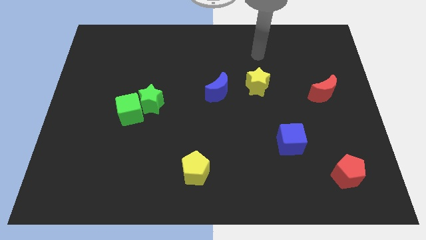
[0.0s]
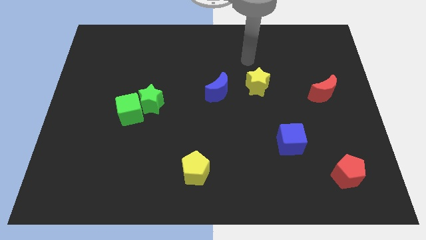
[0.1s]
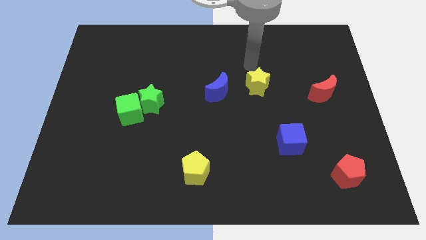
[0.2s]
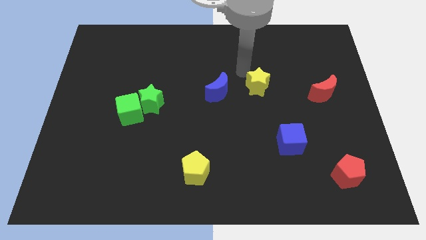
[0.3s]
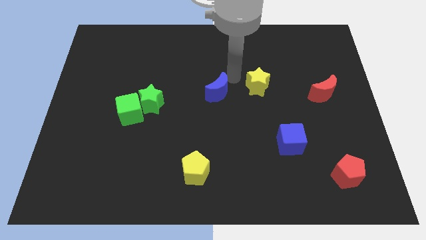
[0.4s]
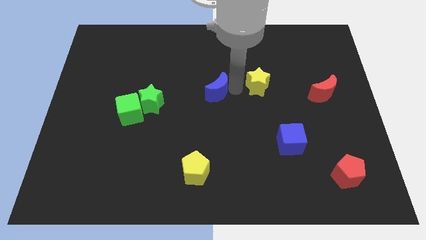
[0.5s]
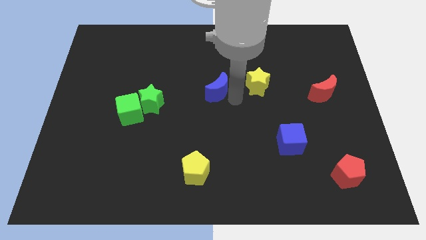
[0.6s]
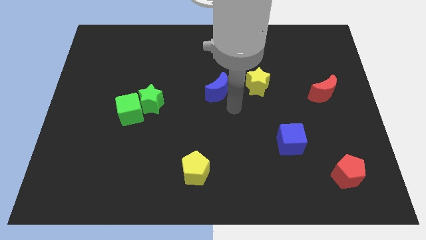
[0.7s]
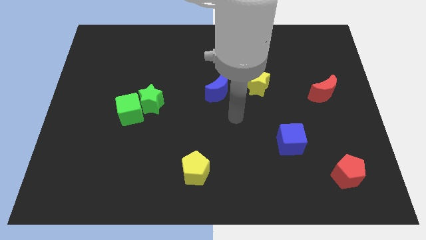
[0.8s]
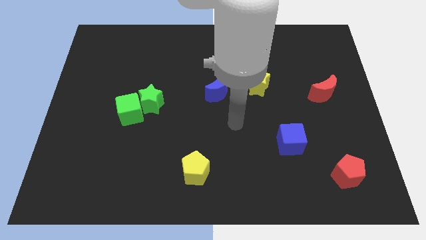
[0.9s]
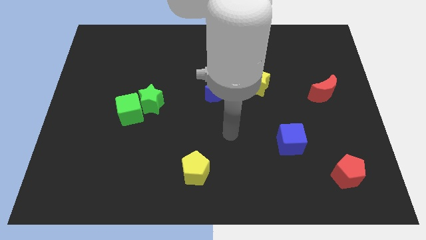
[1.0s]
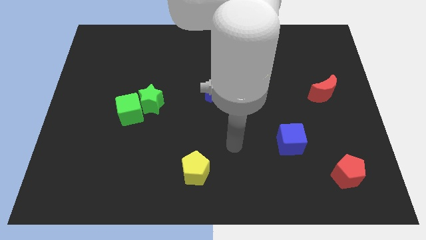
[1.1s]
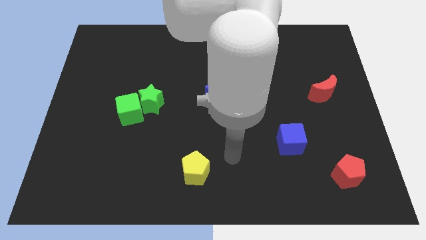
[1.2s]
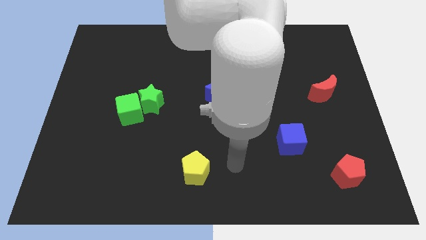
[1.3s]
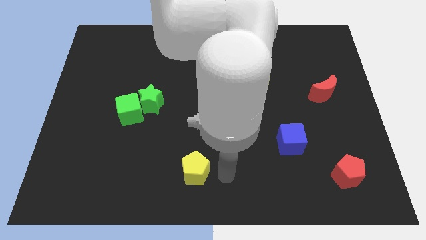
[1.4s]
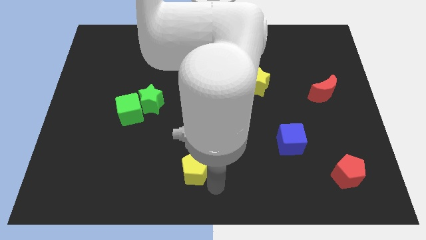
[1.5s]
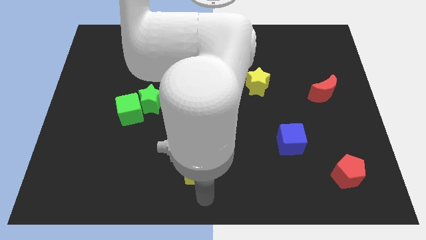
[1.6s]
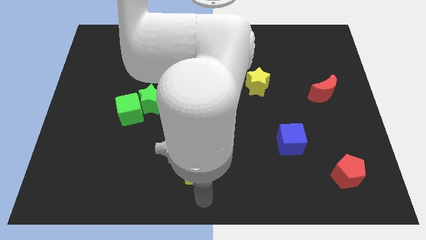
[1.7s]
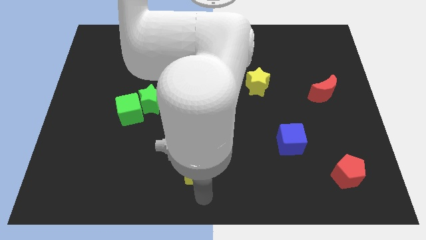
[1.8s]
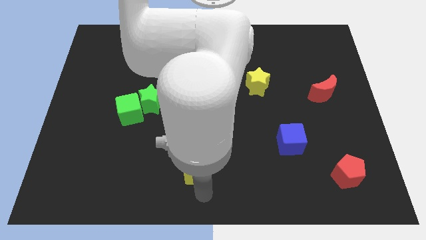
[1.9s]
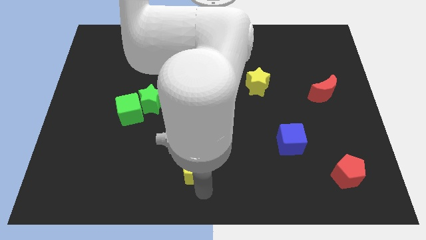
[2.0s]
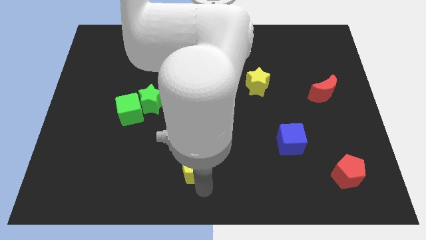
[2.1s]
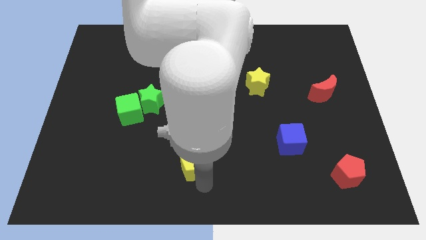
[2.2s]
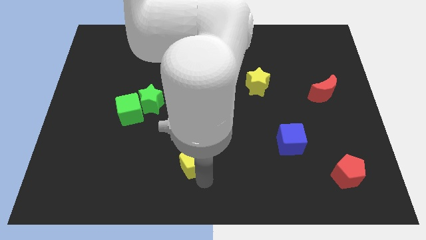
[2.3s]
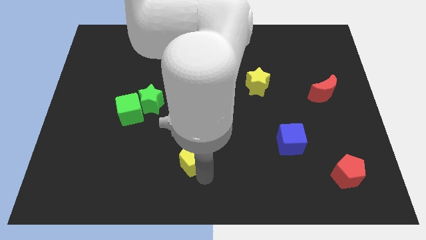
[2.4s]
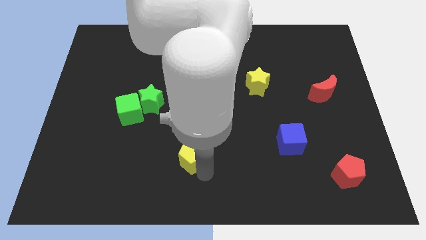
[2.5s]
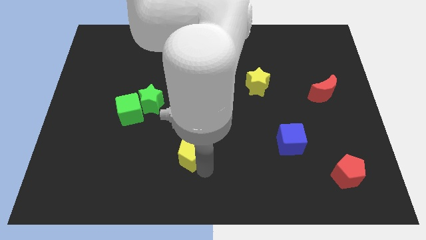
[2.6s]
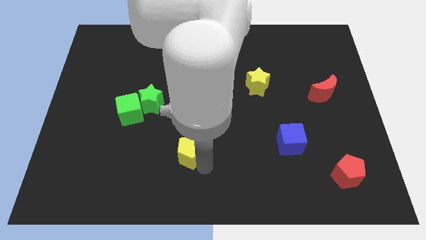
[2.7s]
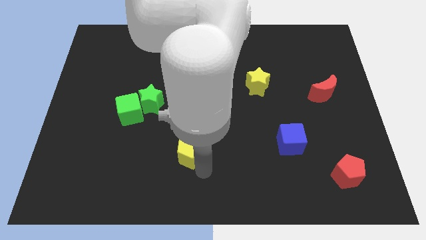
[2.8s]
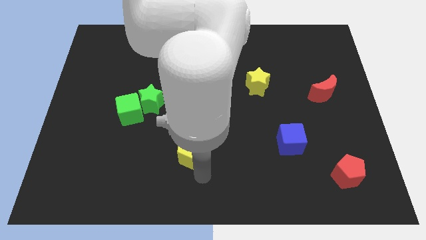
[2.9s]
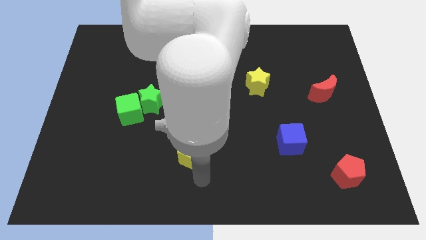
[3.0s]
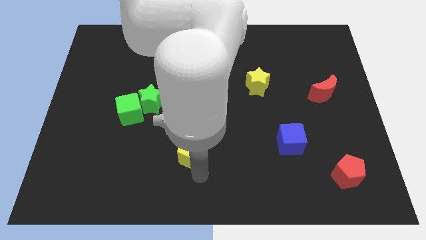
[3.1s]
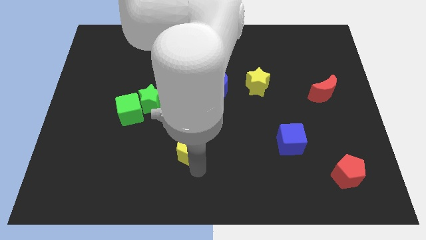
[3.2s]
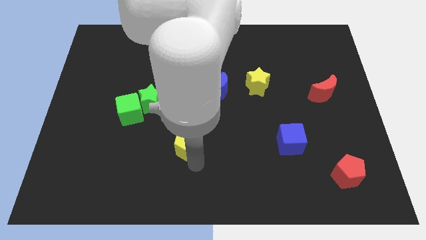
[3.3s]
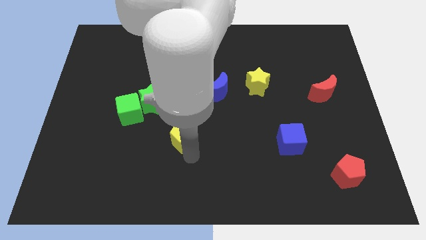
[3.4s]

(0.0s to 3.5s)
slide the yellow pentagon up a little bit

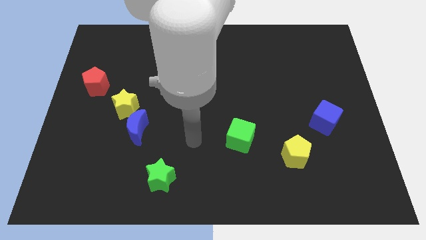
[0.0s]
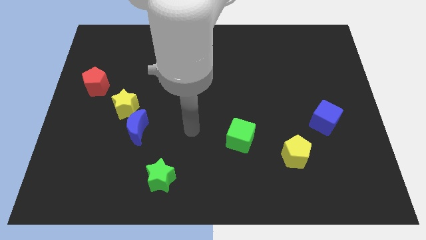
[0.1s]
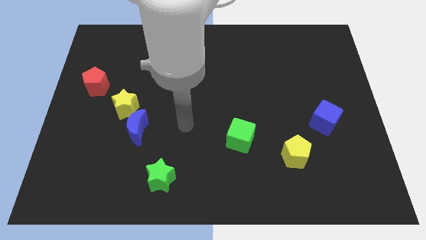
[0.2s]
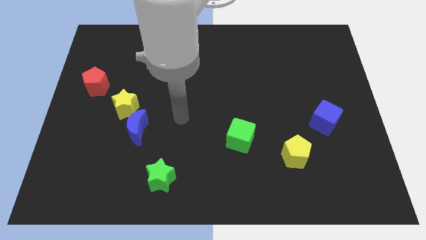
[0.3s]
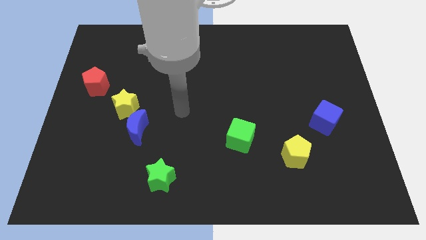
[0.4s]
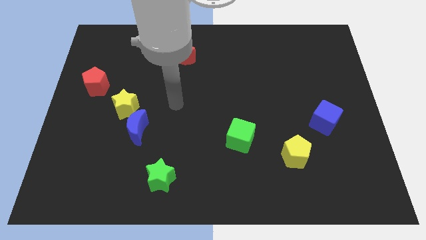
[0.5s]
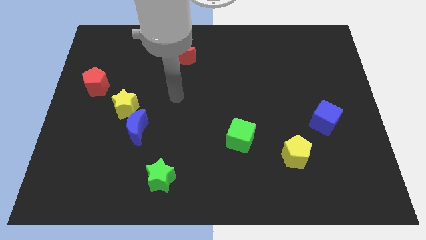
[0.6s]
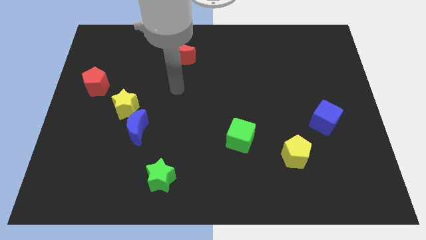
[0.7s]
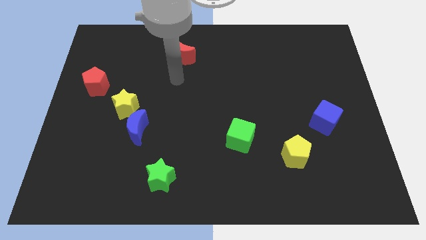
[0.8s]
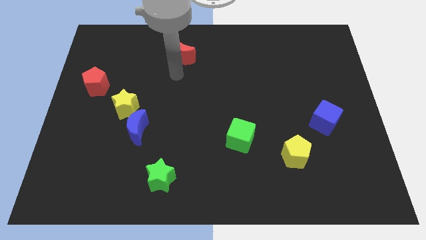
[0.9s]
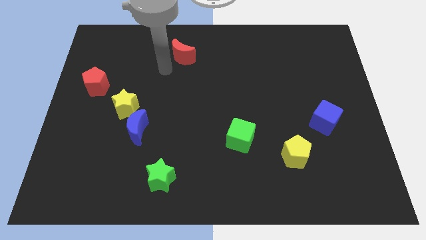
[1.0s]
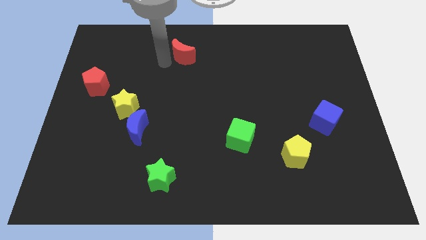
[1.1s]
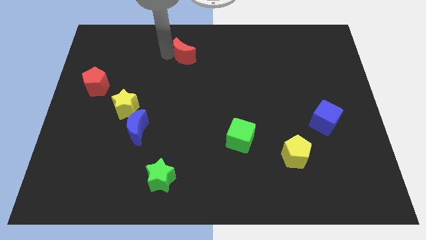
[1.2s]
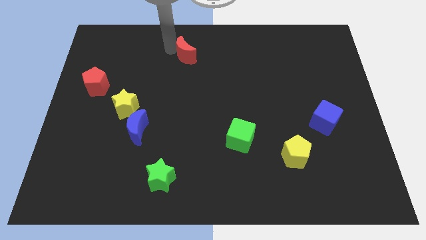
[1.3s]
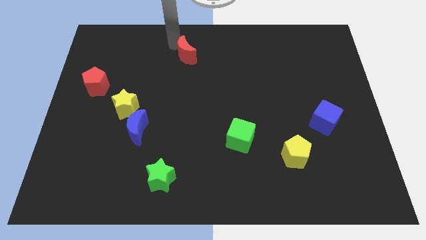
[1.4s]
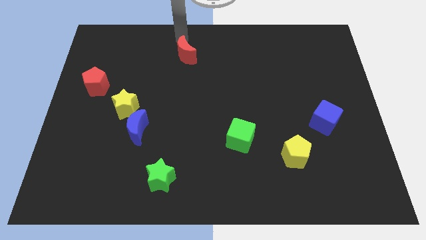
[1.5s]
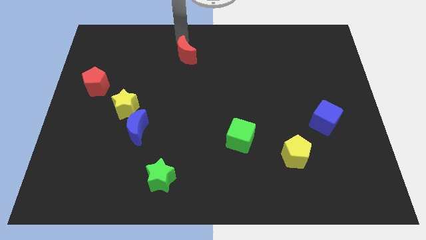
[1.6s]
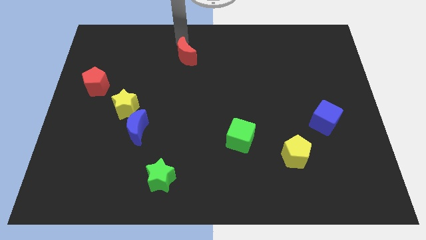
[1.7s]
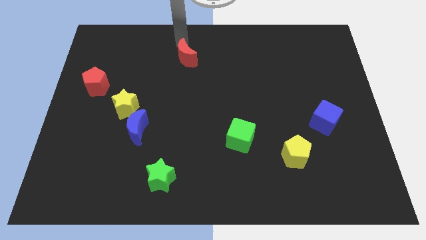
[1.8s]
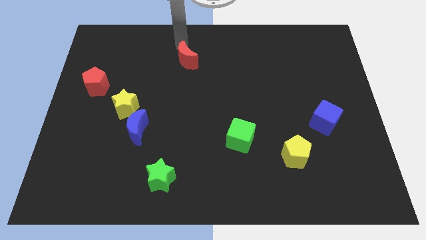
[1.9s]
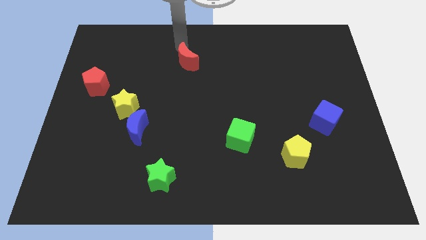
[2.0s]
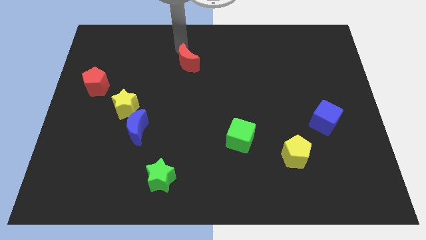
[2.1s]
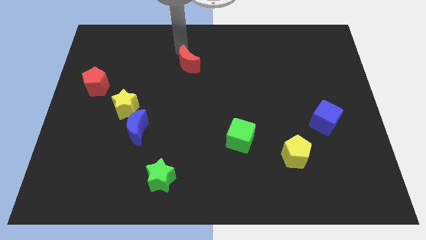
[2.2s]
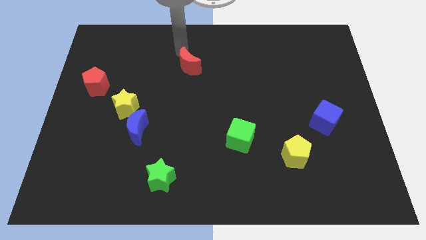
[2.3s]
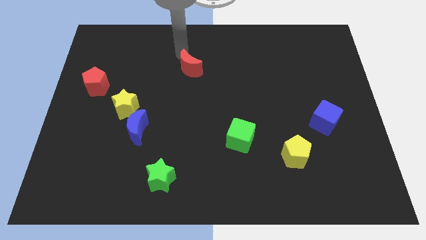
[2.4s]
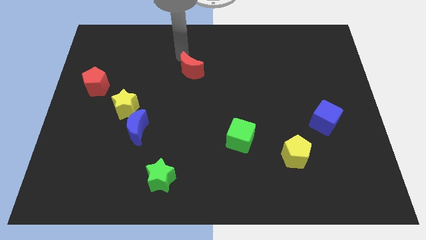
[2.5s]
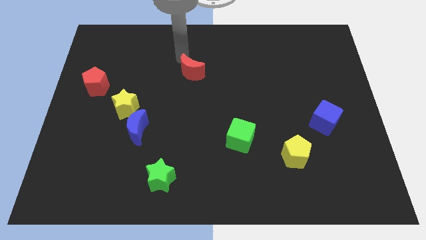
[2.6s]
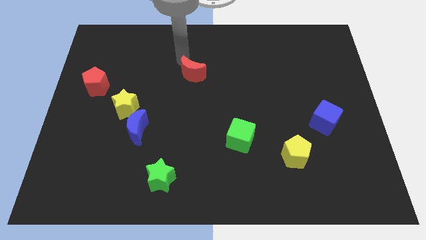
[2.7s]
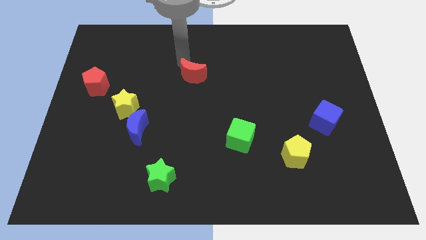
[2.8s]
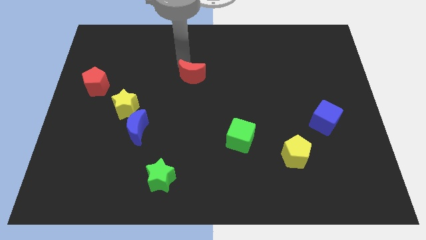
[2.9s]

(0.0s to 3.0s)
move the red moon down somewhat

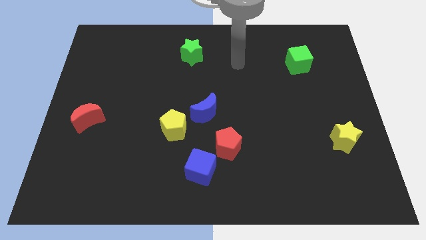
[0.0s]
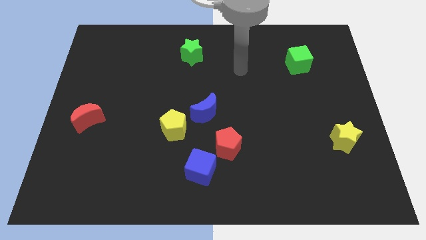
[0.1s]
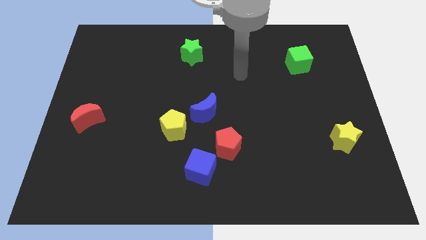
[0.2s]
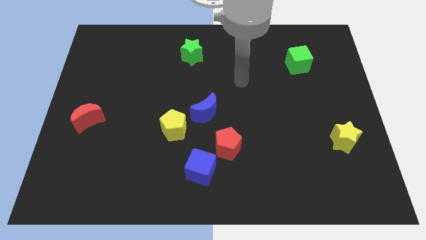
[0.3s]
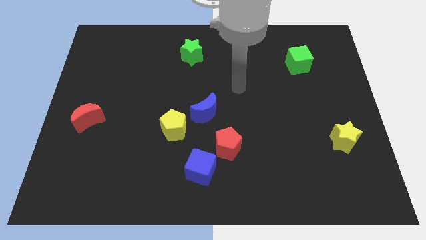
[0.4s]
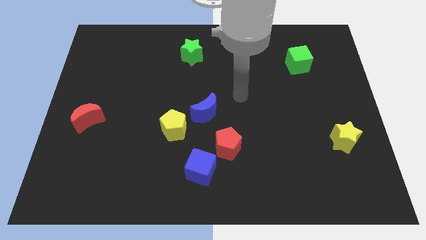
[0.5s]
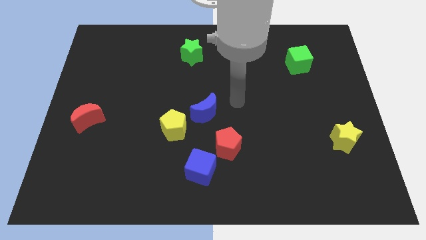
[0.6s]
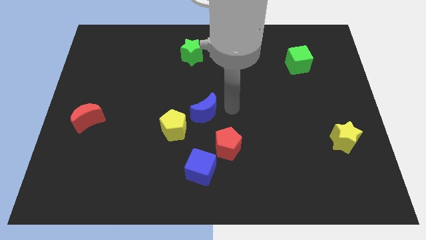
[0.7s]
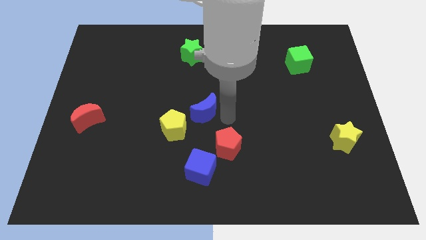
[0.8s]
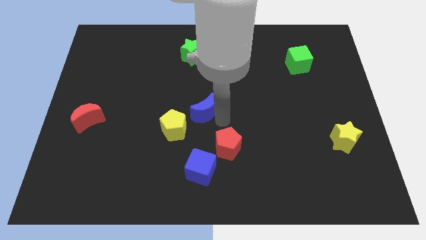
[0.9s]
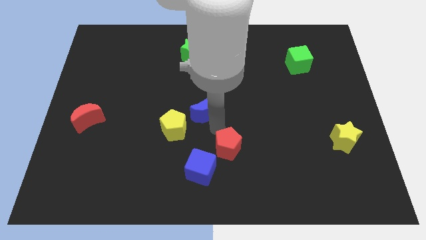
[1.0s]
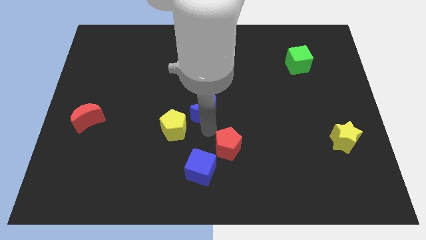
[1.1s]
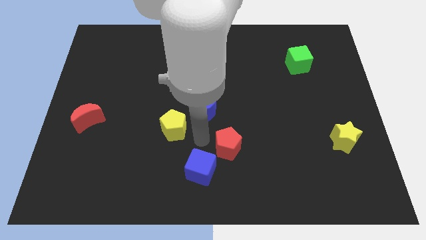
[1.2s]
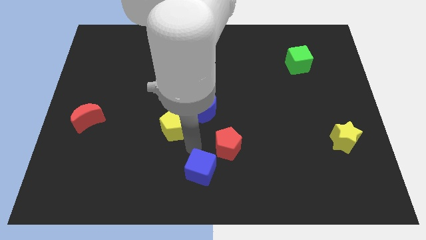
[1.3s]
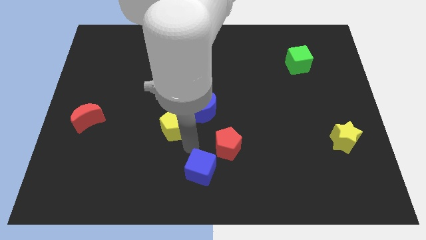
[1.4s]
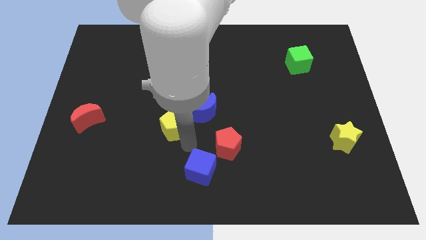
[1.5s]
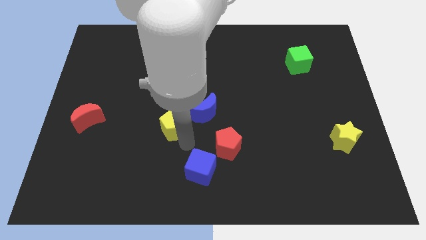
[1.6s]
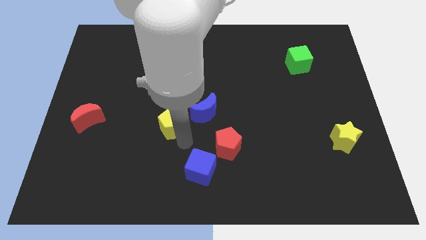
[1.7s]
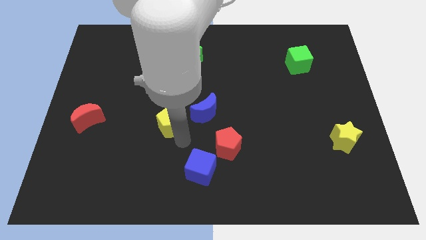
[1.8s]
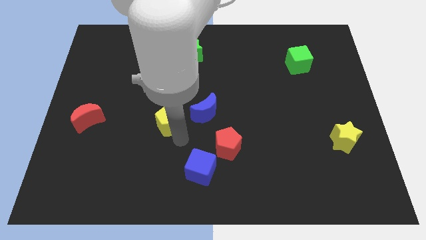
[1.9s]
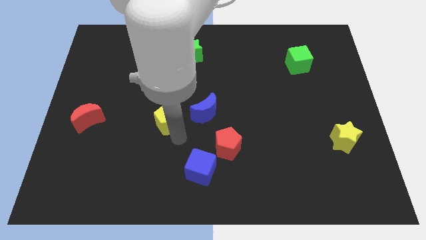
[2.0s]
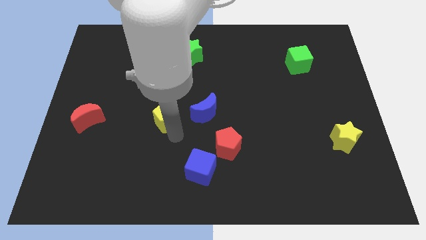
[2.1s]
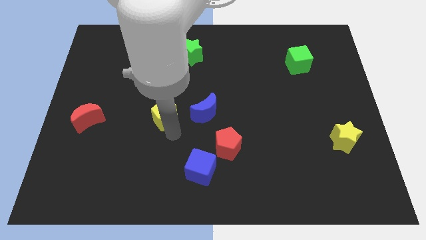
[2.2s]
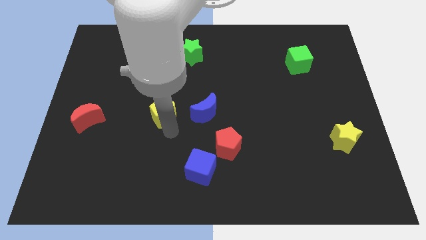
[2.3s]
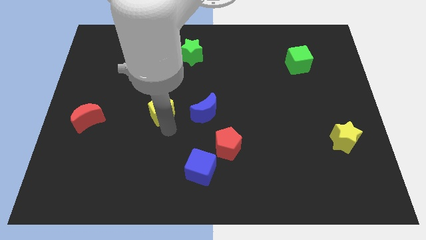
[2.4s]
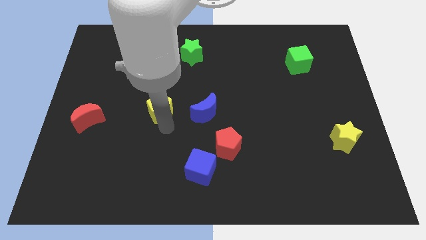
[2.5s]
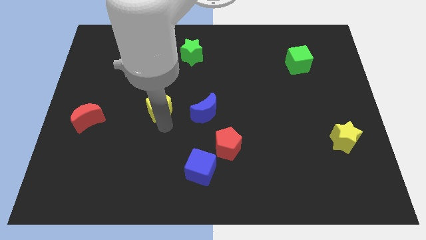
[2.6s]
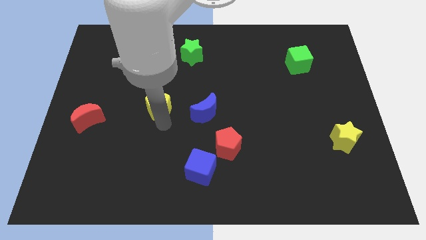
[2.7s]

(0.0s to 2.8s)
move the yellow pentagon diagonally up and left a bit
